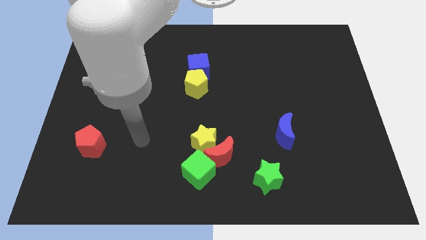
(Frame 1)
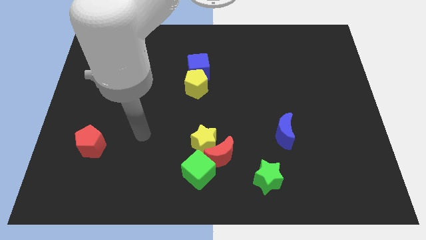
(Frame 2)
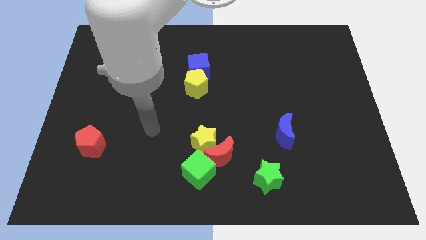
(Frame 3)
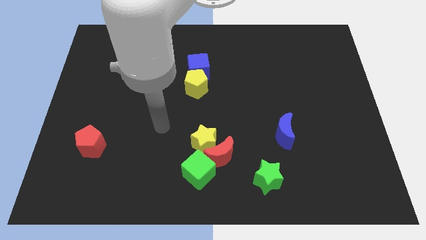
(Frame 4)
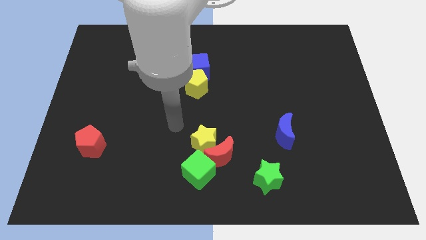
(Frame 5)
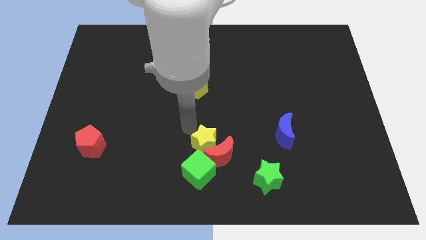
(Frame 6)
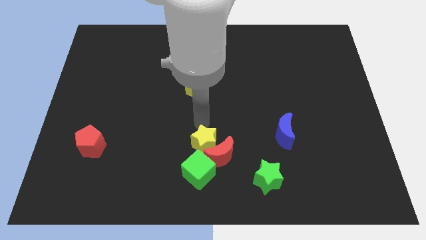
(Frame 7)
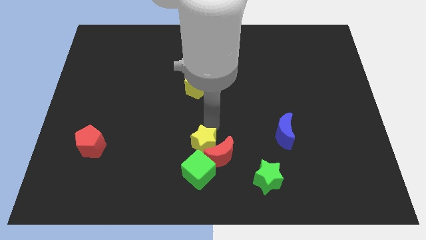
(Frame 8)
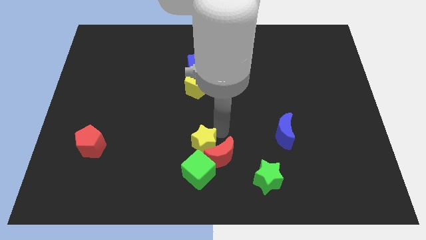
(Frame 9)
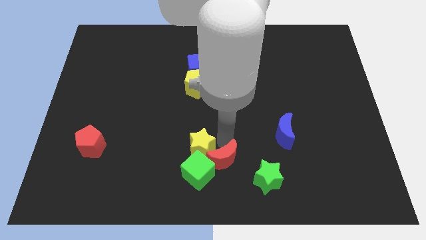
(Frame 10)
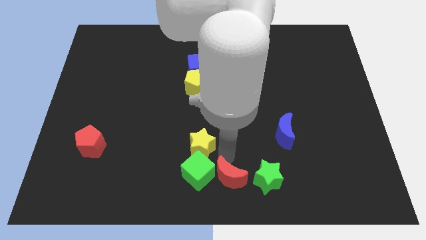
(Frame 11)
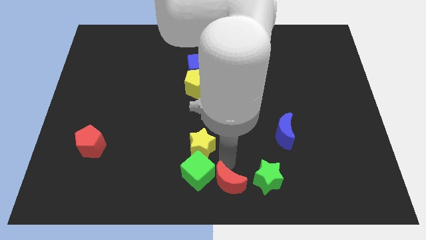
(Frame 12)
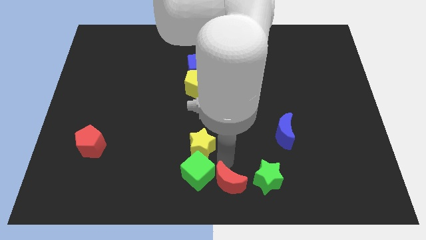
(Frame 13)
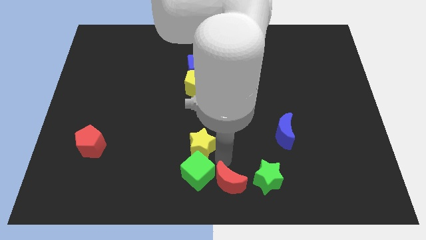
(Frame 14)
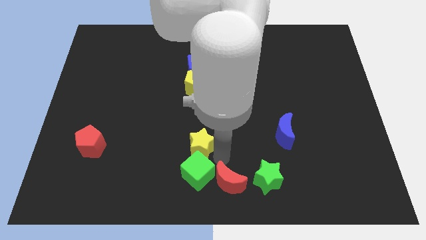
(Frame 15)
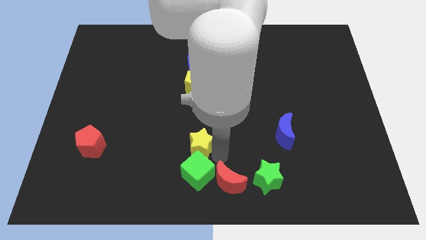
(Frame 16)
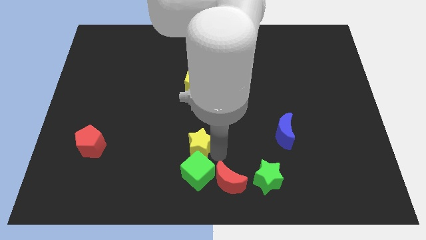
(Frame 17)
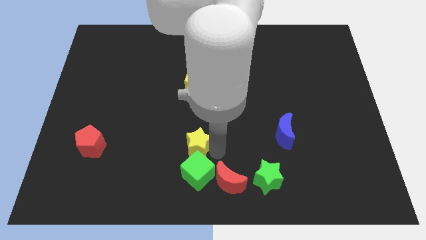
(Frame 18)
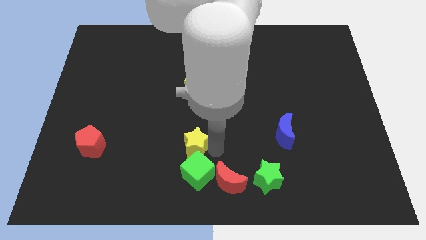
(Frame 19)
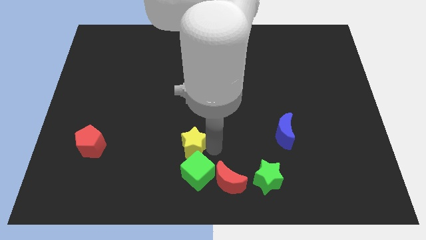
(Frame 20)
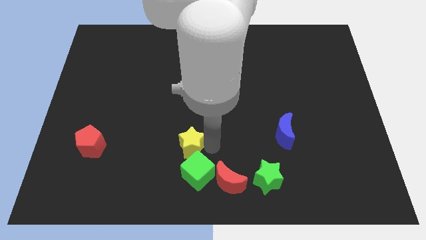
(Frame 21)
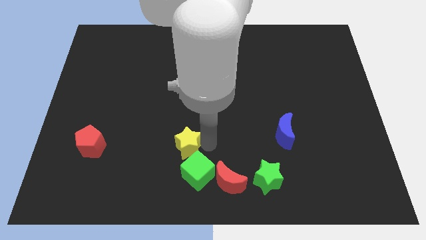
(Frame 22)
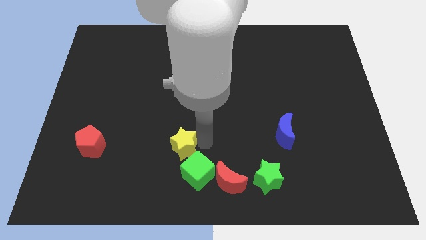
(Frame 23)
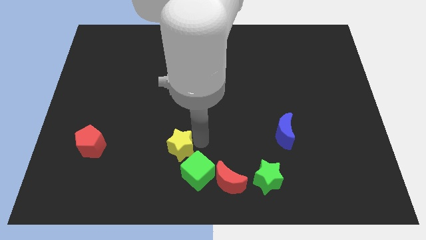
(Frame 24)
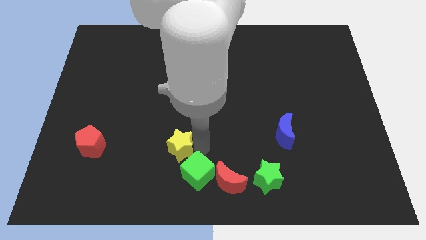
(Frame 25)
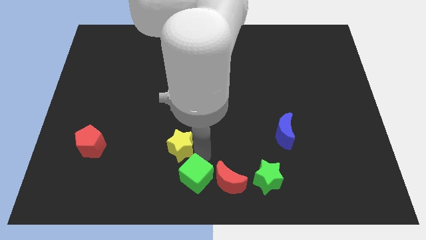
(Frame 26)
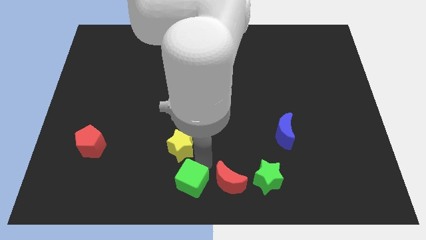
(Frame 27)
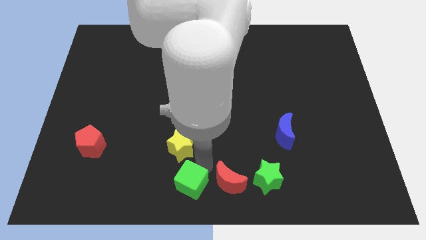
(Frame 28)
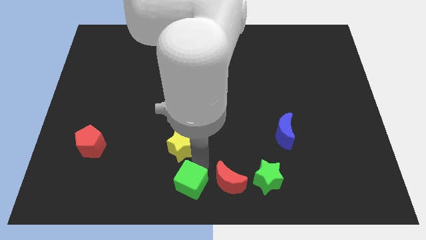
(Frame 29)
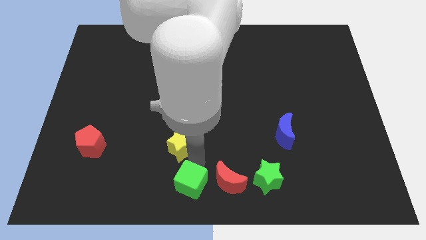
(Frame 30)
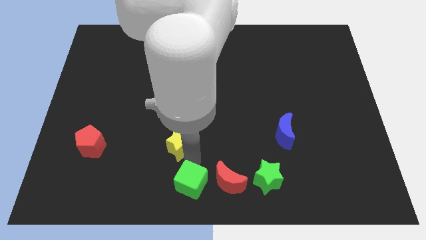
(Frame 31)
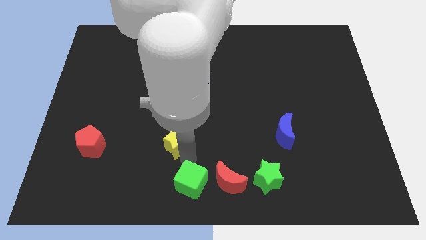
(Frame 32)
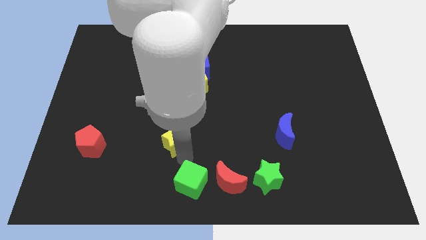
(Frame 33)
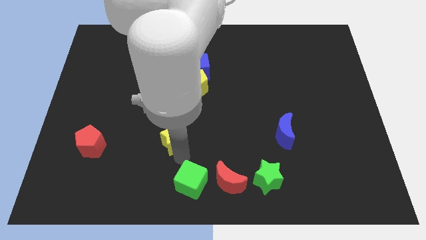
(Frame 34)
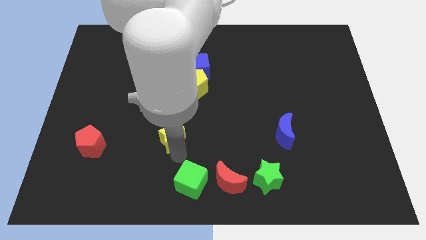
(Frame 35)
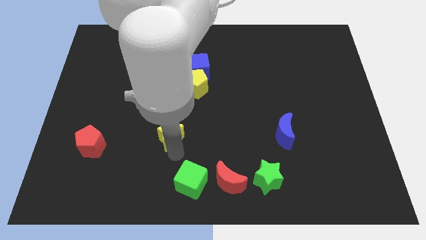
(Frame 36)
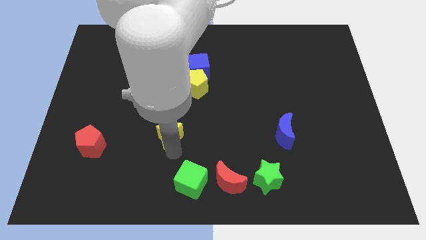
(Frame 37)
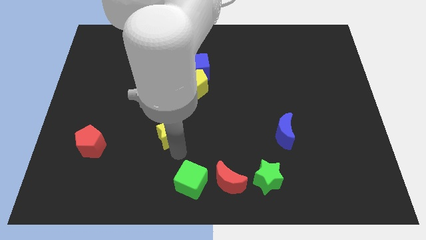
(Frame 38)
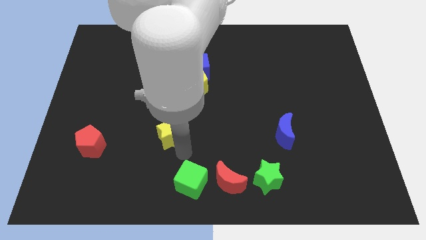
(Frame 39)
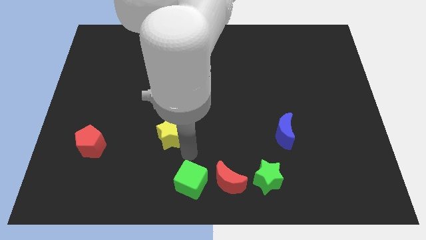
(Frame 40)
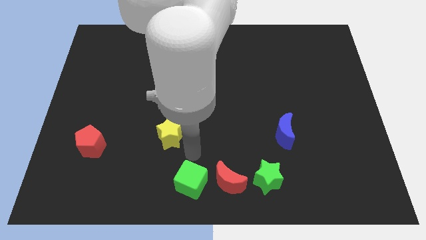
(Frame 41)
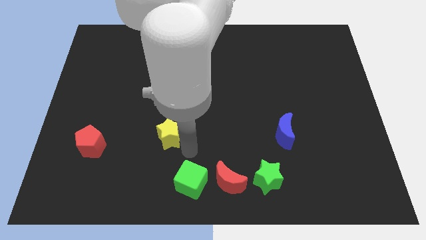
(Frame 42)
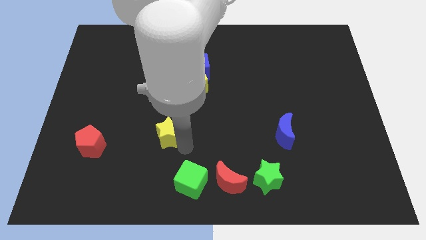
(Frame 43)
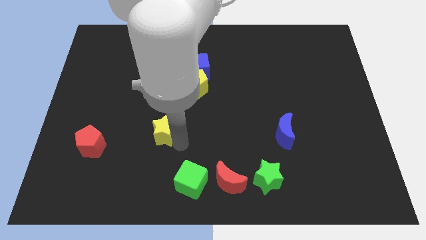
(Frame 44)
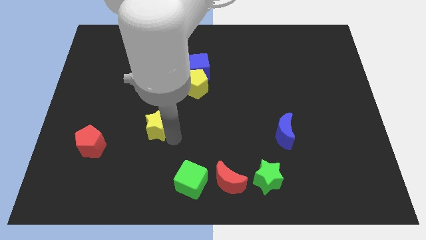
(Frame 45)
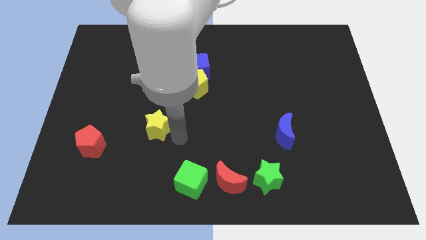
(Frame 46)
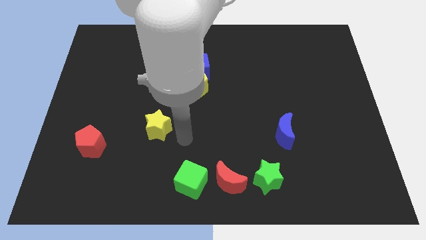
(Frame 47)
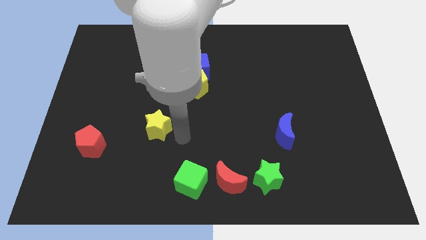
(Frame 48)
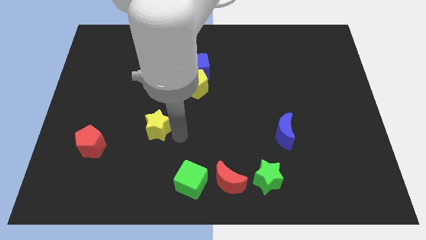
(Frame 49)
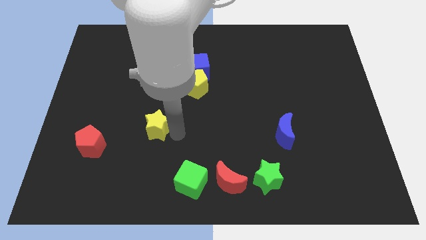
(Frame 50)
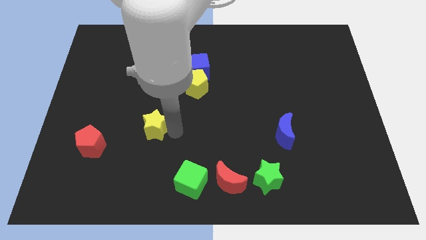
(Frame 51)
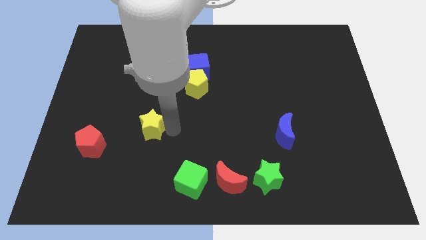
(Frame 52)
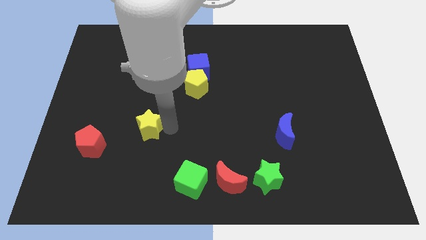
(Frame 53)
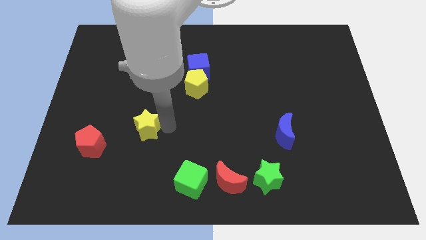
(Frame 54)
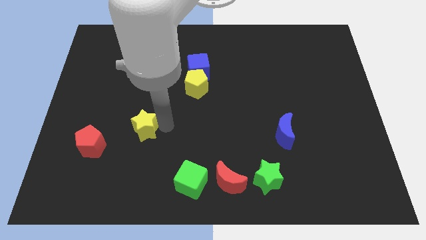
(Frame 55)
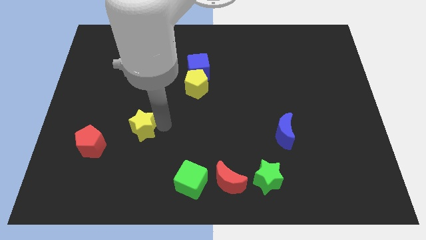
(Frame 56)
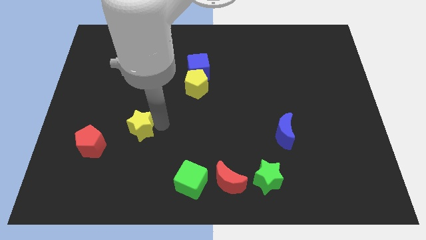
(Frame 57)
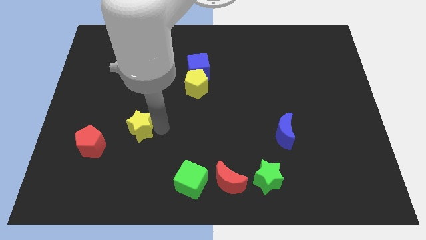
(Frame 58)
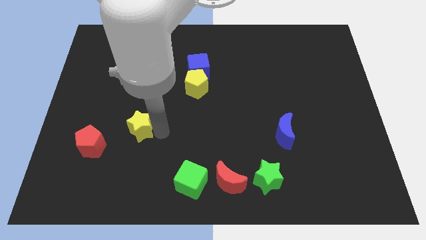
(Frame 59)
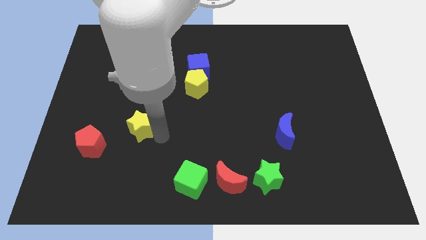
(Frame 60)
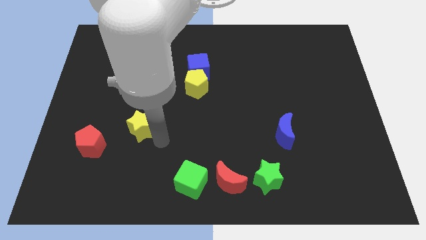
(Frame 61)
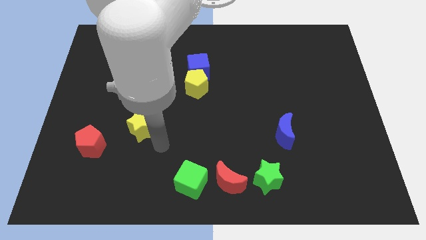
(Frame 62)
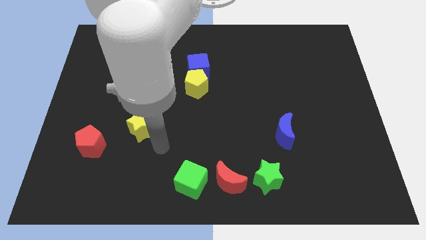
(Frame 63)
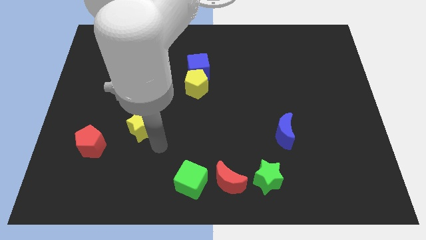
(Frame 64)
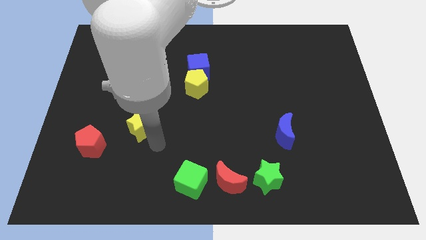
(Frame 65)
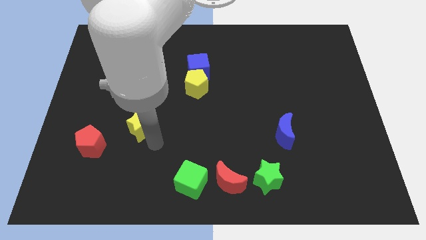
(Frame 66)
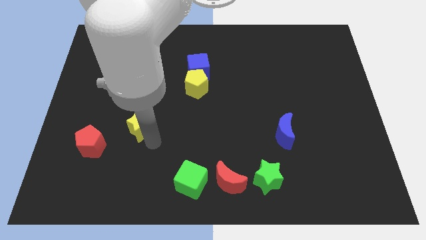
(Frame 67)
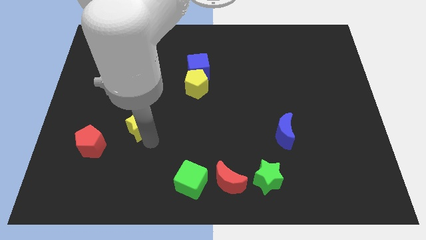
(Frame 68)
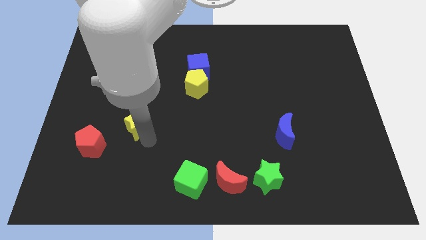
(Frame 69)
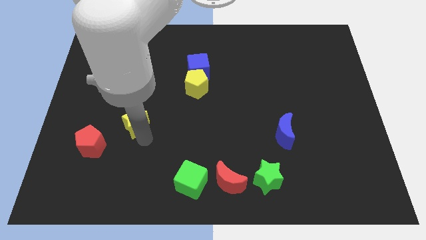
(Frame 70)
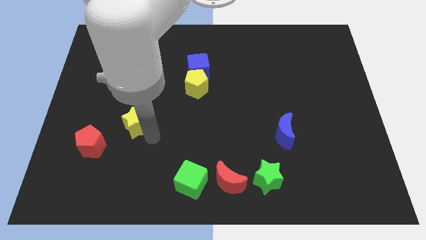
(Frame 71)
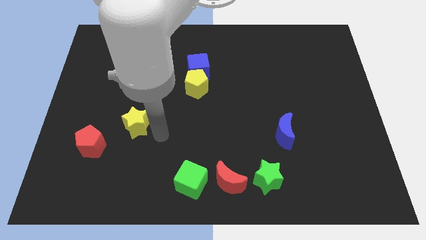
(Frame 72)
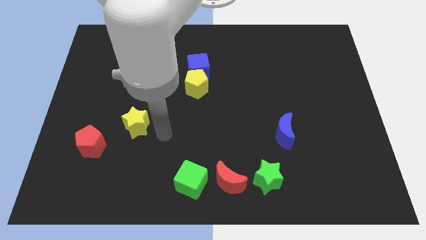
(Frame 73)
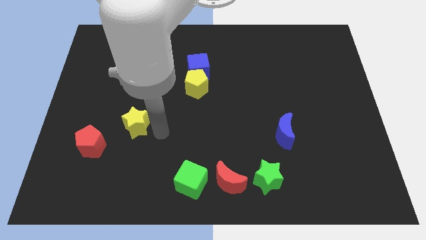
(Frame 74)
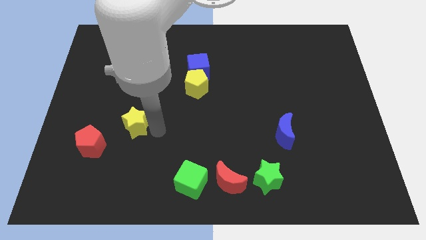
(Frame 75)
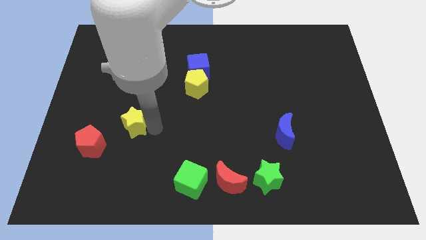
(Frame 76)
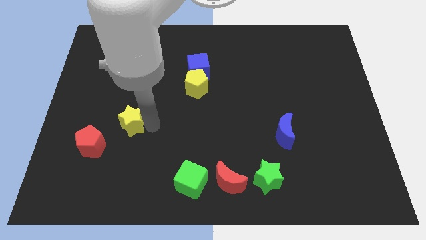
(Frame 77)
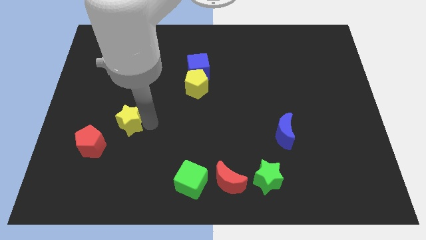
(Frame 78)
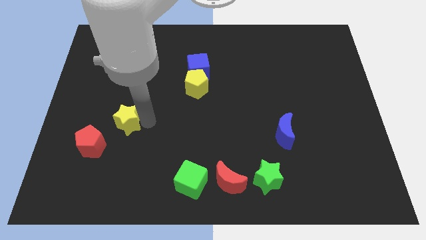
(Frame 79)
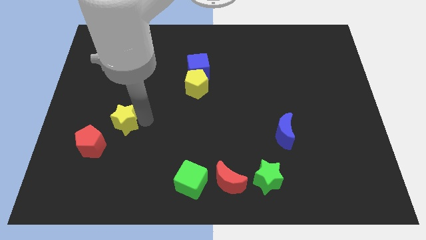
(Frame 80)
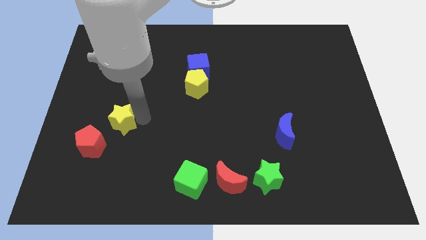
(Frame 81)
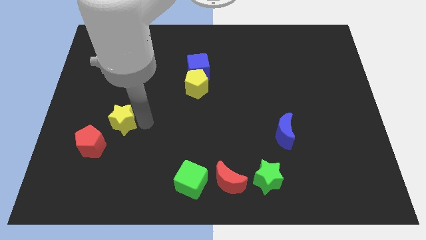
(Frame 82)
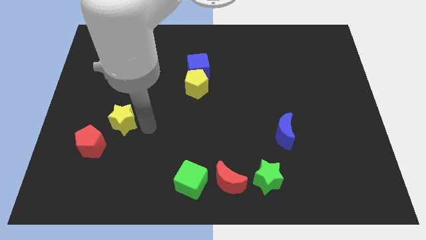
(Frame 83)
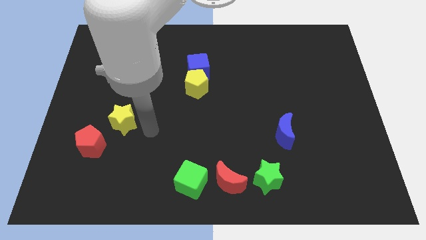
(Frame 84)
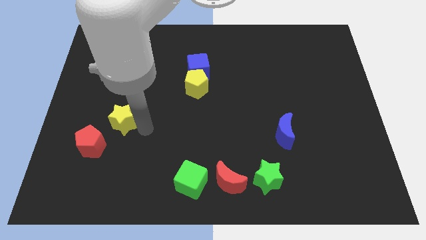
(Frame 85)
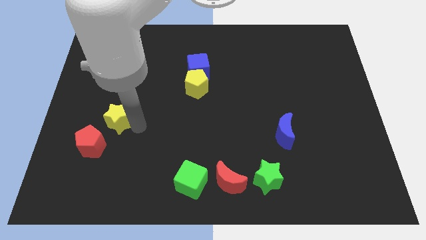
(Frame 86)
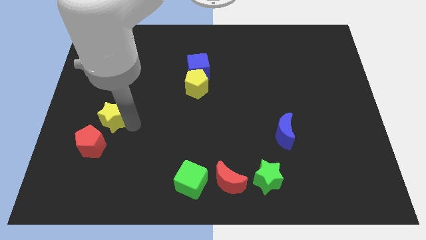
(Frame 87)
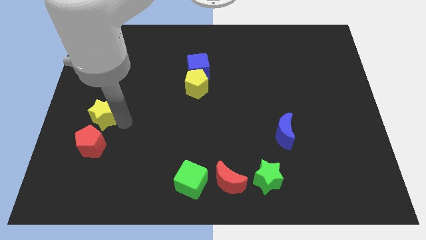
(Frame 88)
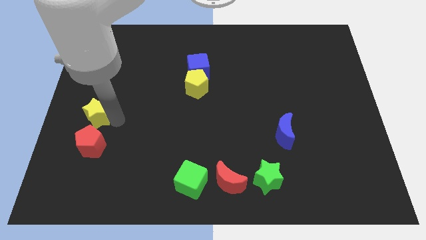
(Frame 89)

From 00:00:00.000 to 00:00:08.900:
move the yellow star to the center left
